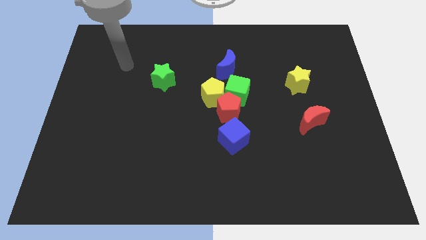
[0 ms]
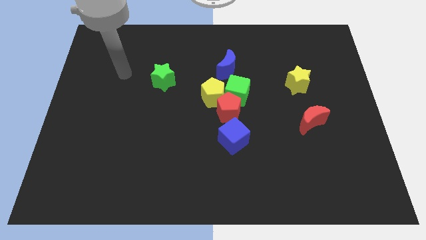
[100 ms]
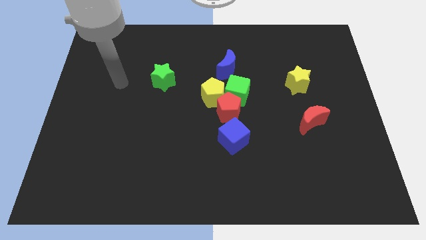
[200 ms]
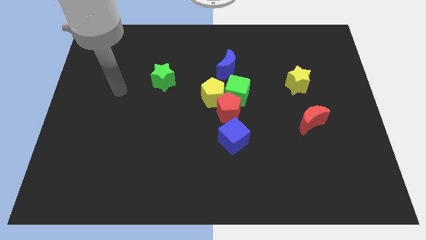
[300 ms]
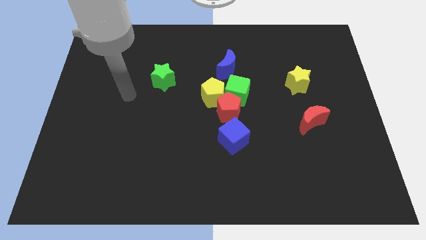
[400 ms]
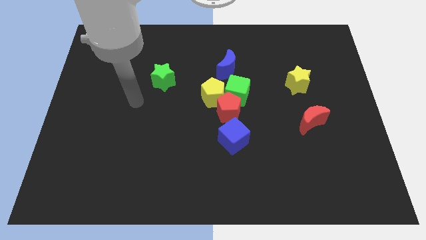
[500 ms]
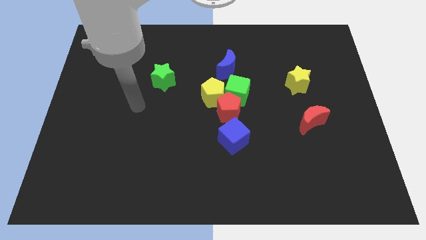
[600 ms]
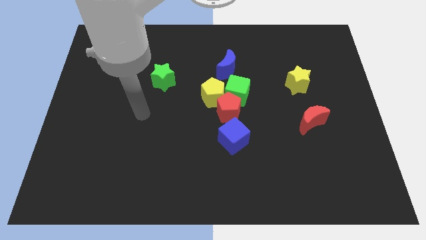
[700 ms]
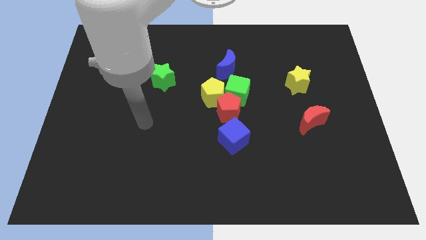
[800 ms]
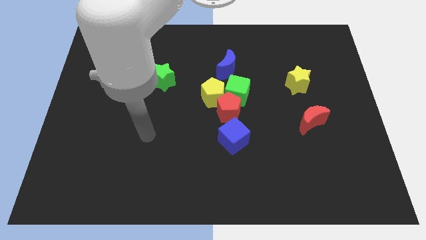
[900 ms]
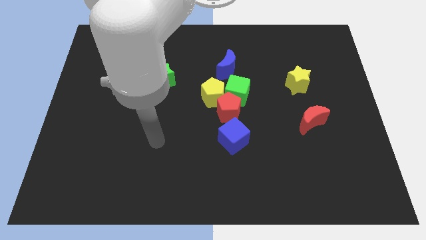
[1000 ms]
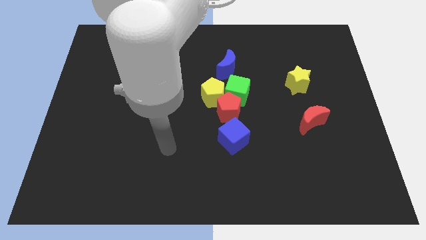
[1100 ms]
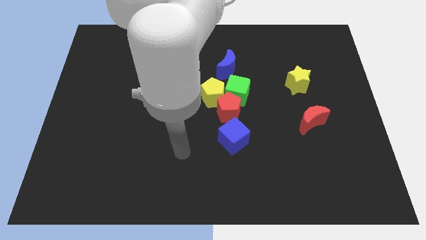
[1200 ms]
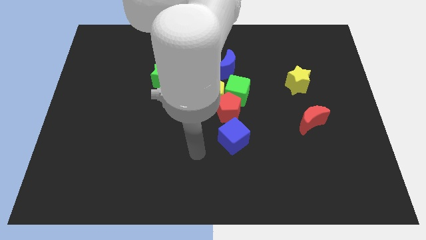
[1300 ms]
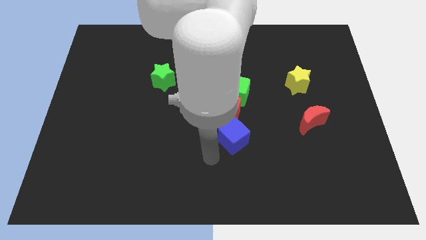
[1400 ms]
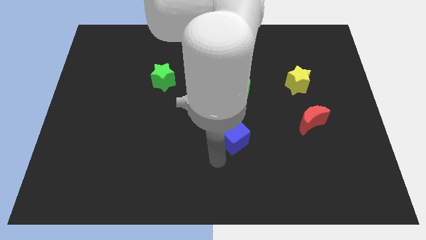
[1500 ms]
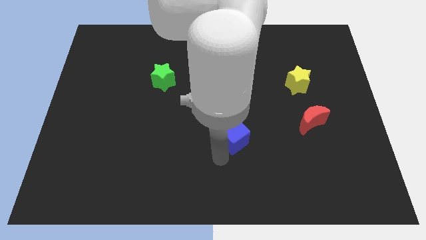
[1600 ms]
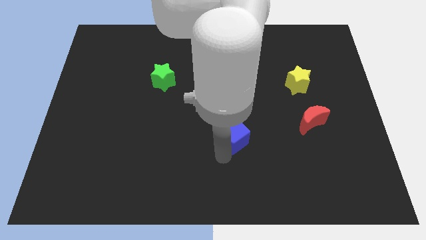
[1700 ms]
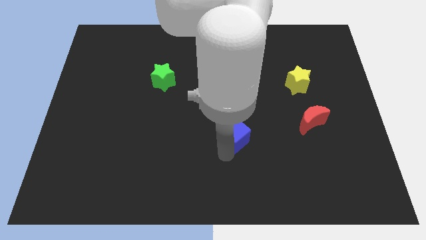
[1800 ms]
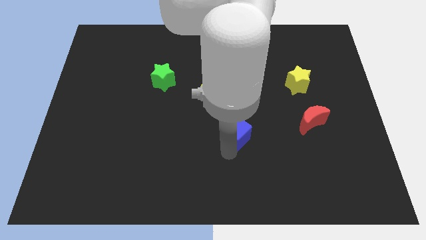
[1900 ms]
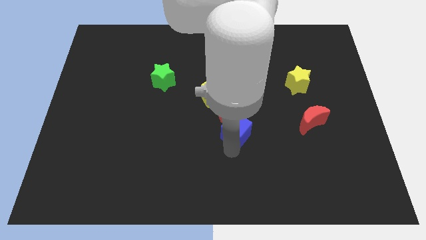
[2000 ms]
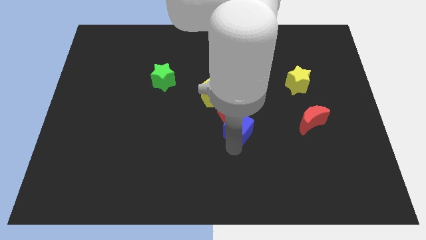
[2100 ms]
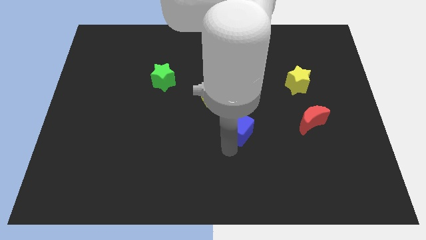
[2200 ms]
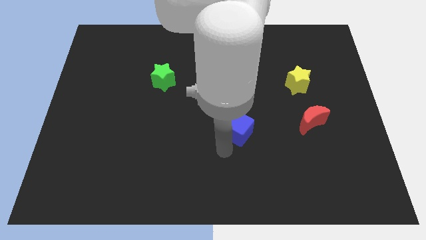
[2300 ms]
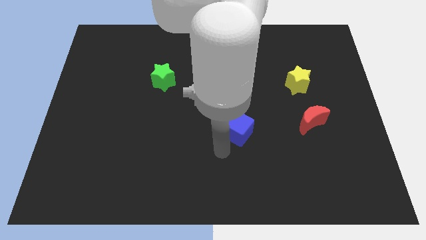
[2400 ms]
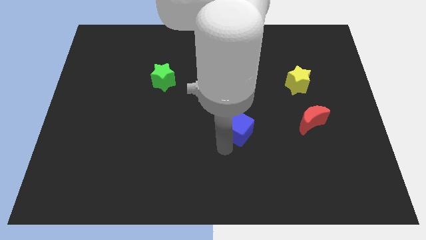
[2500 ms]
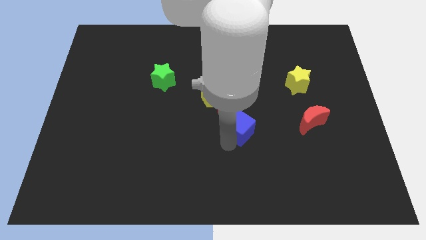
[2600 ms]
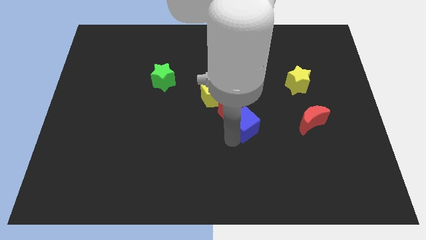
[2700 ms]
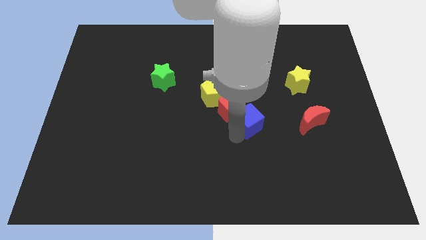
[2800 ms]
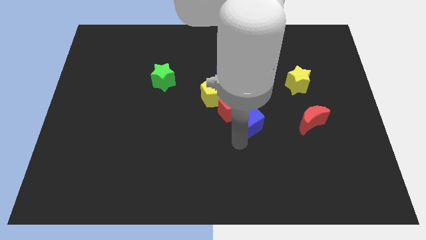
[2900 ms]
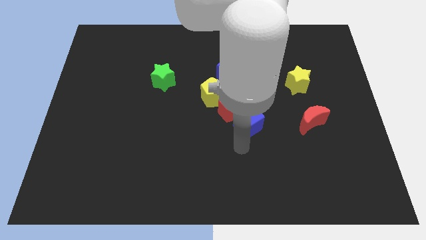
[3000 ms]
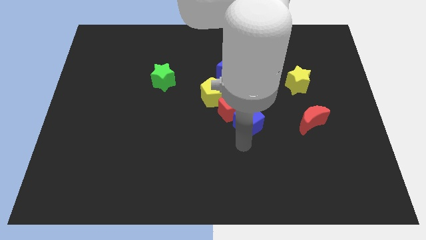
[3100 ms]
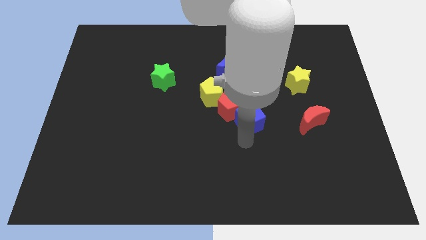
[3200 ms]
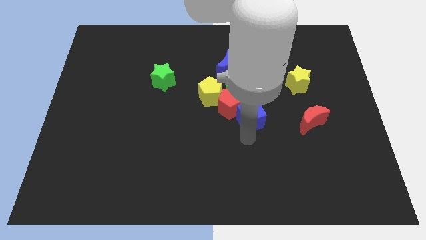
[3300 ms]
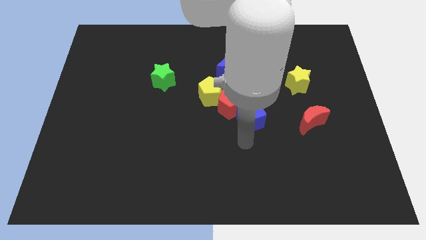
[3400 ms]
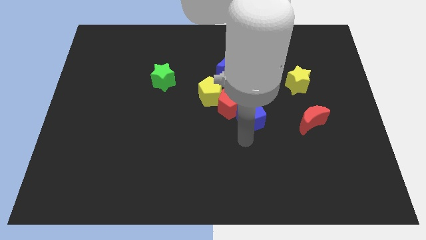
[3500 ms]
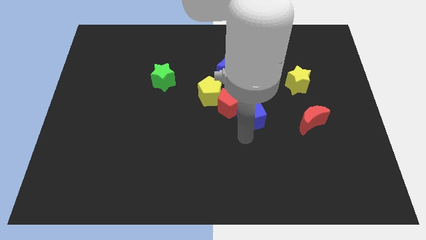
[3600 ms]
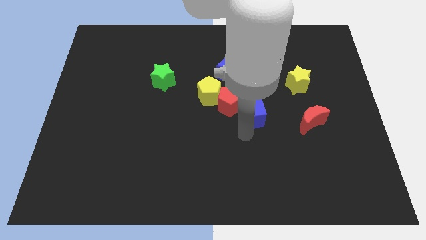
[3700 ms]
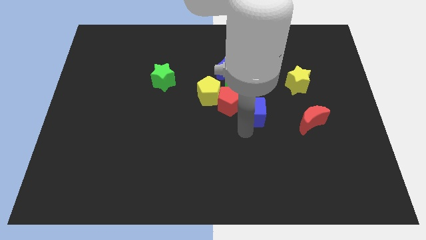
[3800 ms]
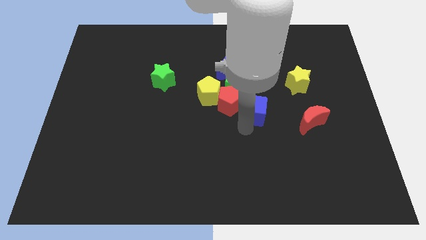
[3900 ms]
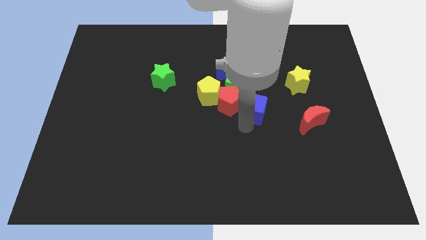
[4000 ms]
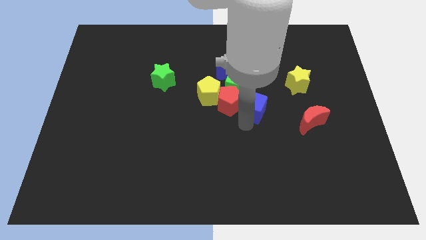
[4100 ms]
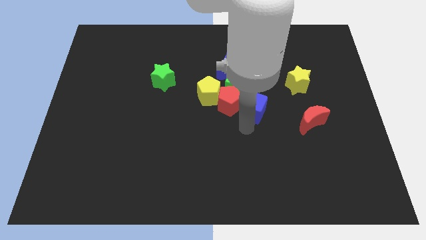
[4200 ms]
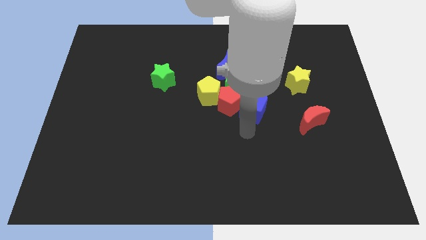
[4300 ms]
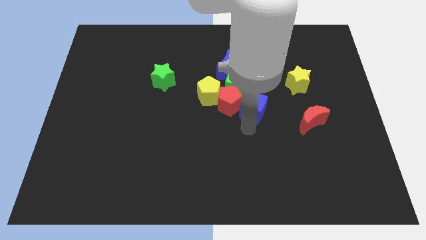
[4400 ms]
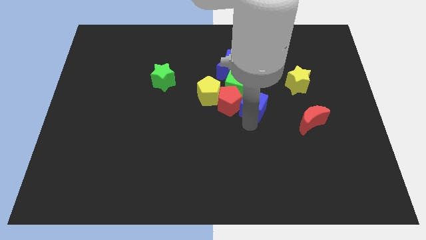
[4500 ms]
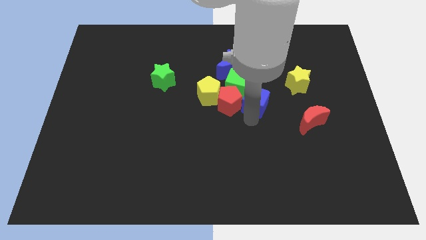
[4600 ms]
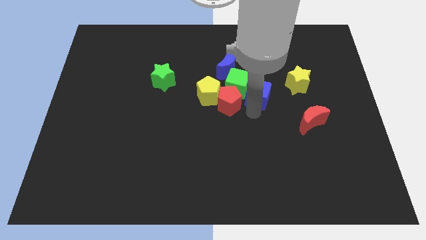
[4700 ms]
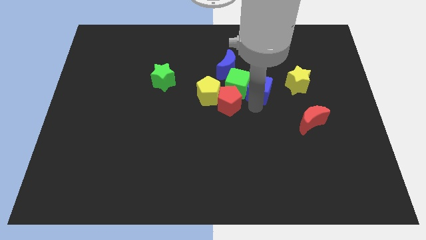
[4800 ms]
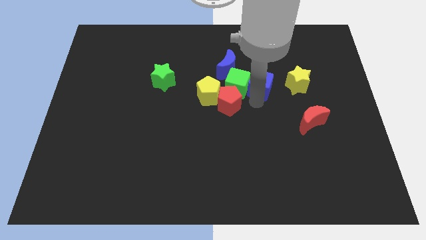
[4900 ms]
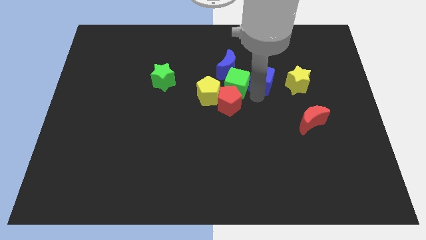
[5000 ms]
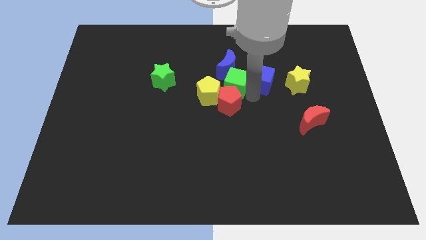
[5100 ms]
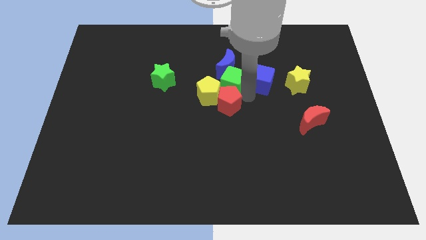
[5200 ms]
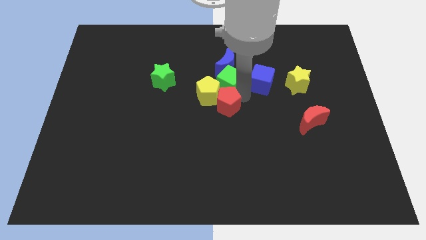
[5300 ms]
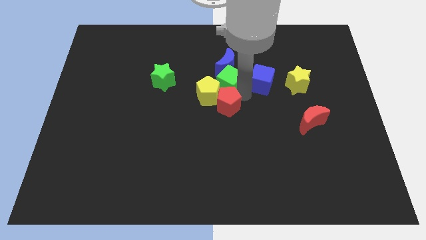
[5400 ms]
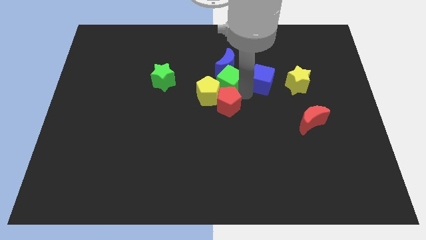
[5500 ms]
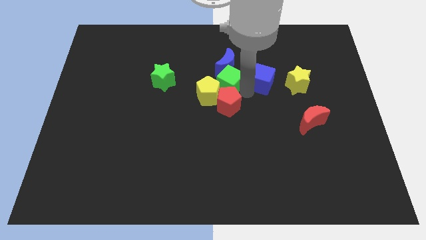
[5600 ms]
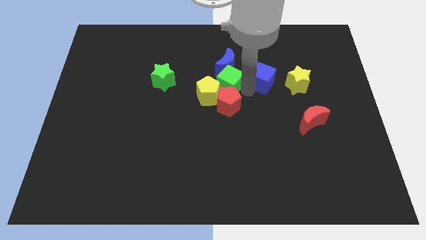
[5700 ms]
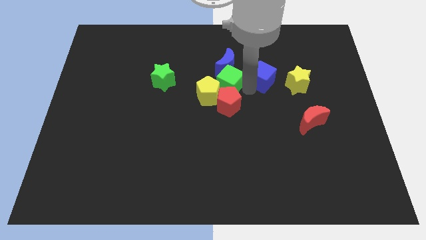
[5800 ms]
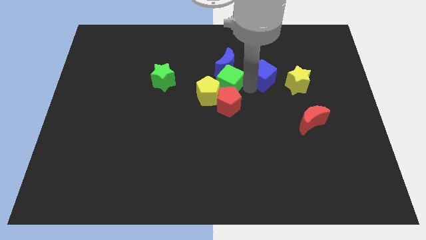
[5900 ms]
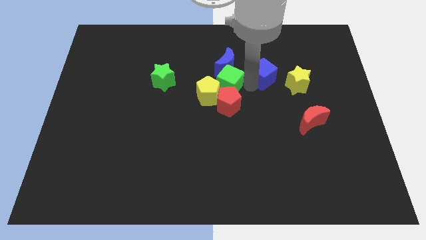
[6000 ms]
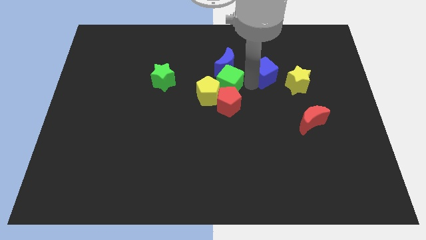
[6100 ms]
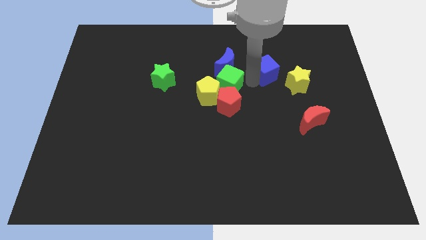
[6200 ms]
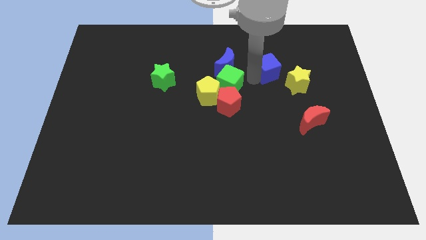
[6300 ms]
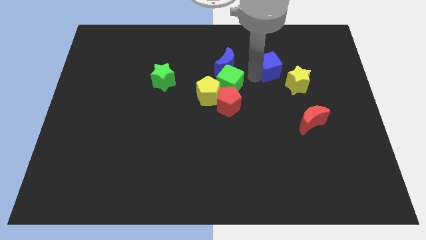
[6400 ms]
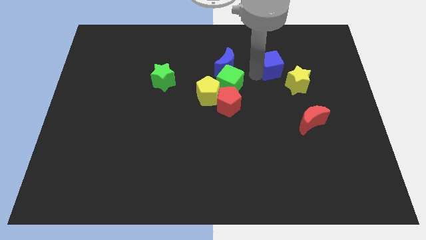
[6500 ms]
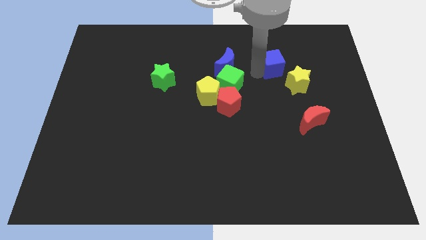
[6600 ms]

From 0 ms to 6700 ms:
push the blue cube up and right diagonally

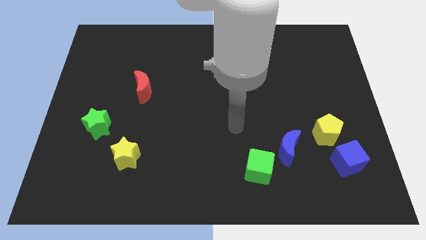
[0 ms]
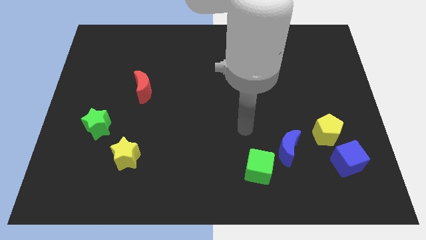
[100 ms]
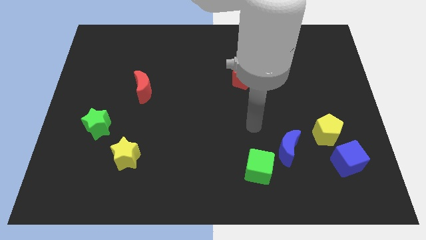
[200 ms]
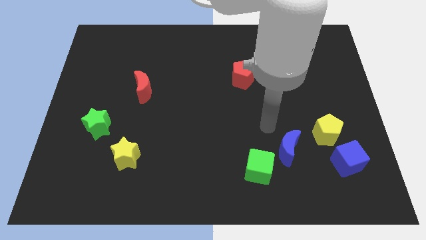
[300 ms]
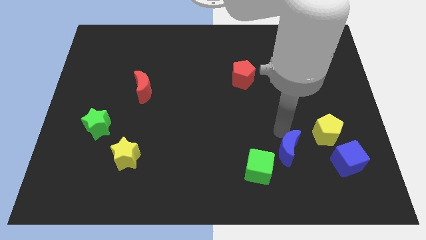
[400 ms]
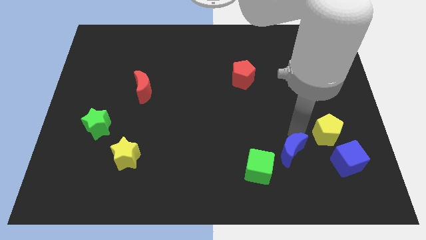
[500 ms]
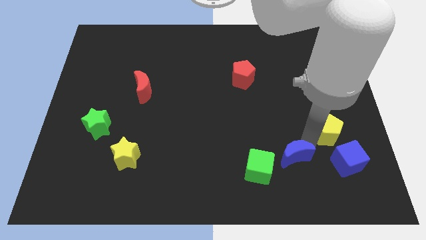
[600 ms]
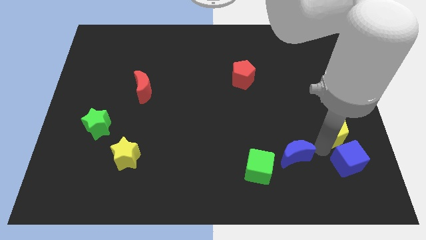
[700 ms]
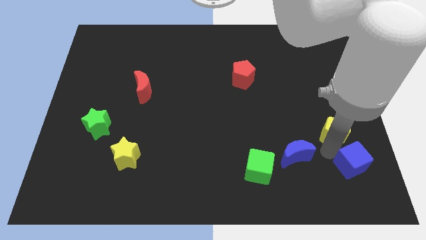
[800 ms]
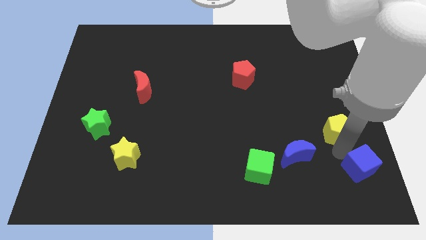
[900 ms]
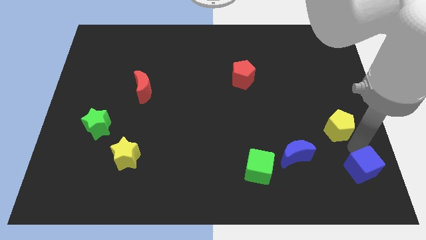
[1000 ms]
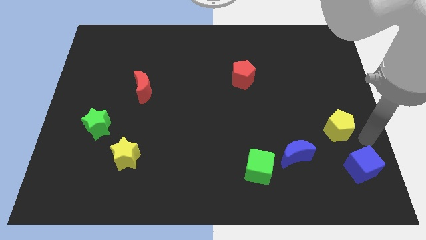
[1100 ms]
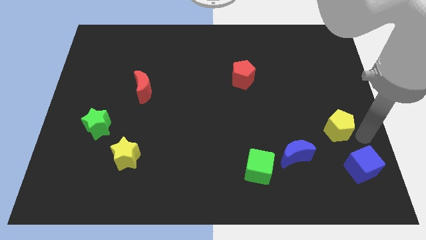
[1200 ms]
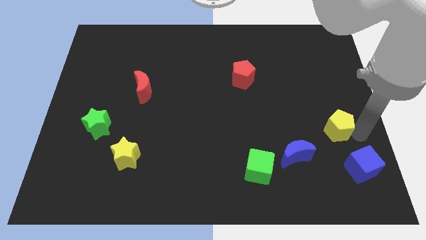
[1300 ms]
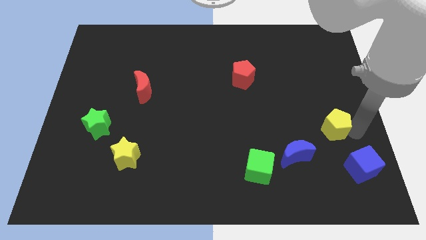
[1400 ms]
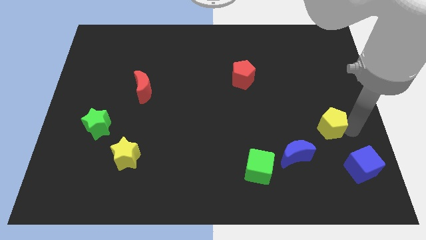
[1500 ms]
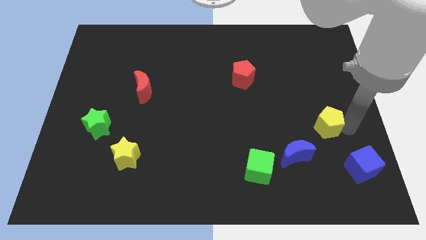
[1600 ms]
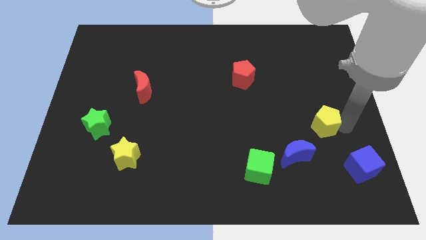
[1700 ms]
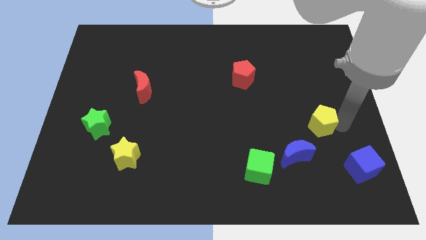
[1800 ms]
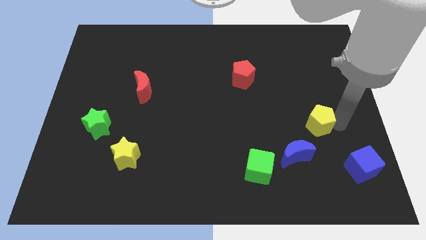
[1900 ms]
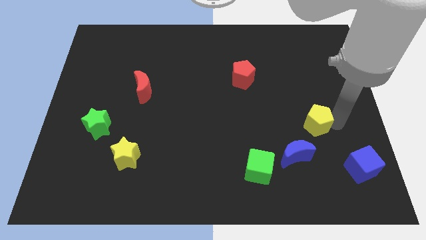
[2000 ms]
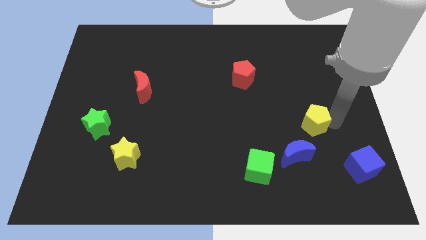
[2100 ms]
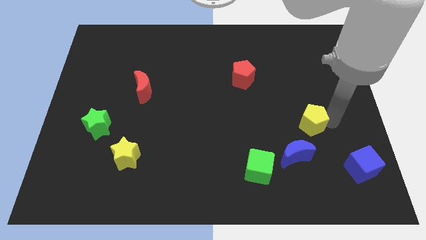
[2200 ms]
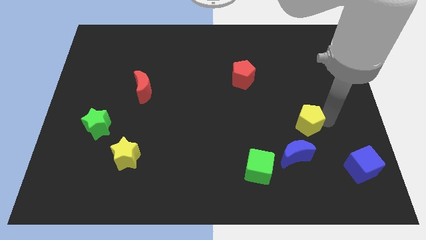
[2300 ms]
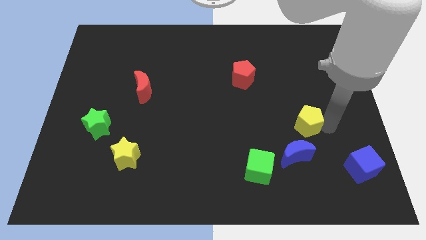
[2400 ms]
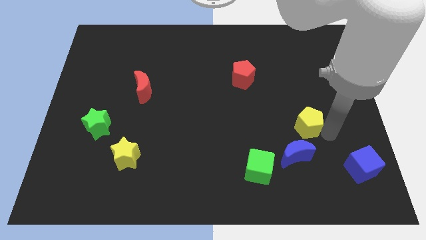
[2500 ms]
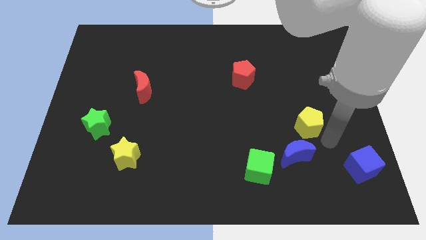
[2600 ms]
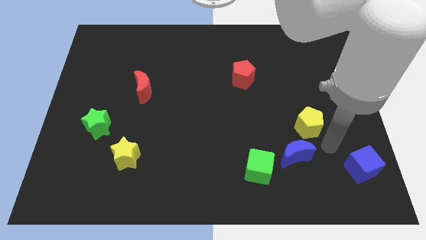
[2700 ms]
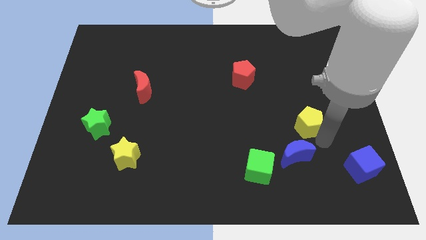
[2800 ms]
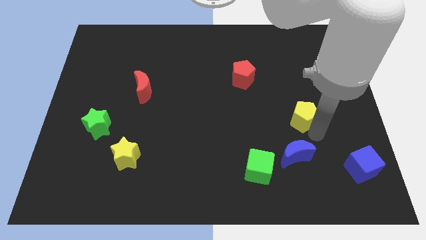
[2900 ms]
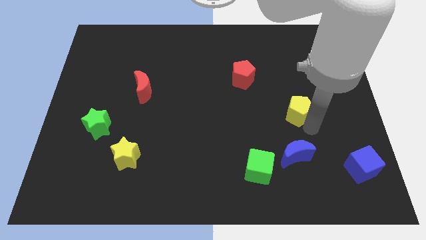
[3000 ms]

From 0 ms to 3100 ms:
slide the yellow pentagon a little bit upwards and to the left
